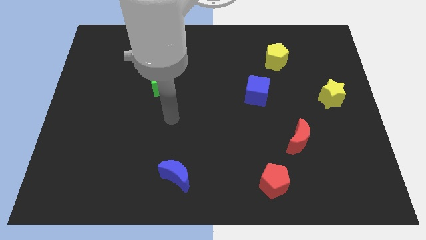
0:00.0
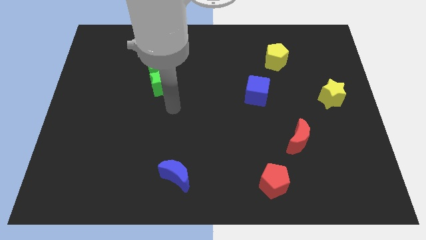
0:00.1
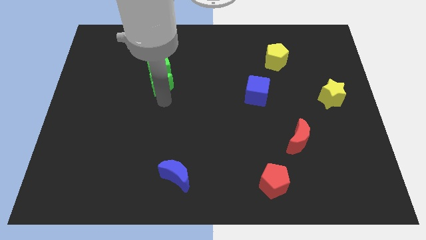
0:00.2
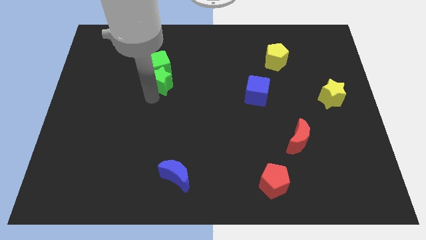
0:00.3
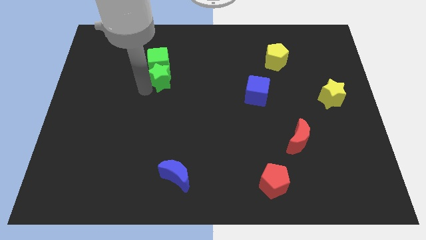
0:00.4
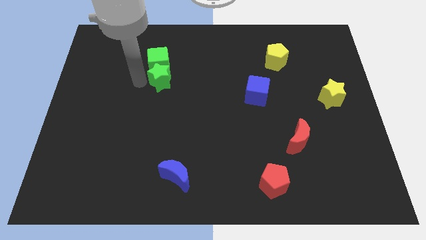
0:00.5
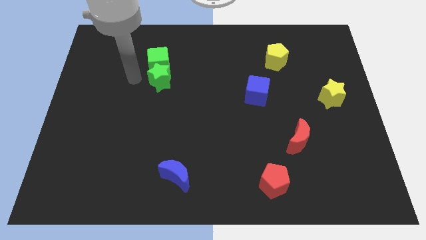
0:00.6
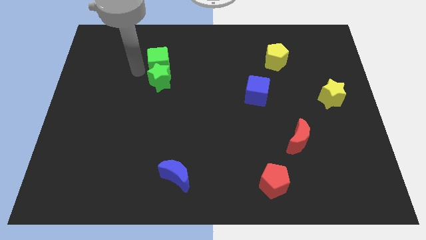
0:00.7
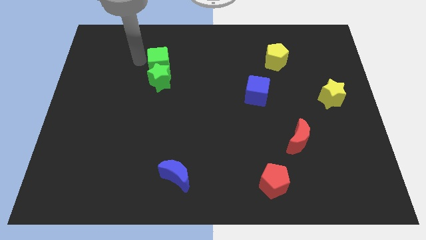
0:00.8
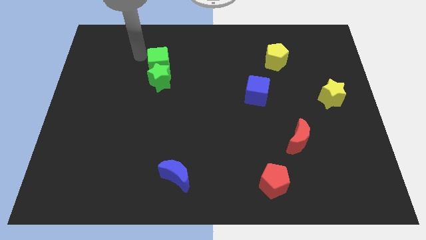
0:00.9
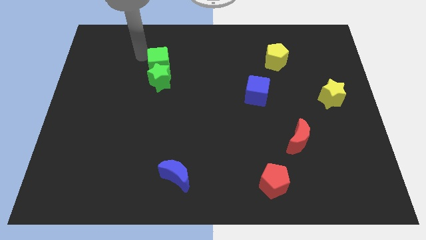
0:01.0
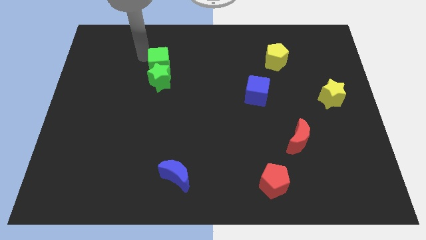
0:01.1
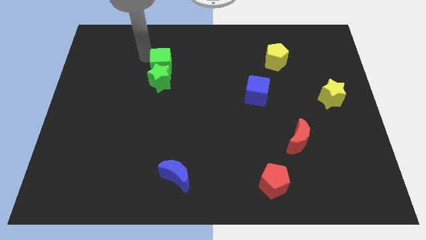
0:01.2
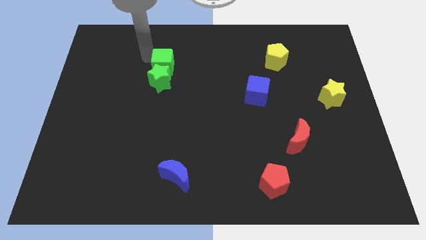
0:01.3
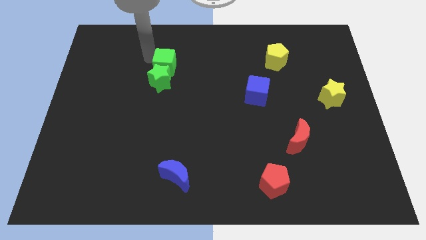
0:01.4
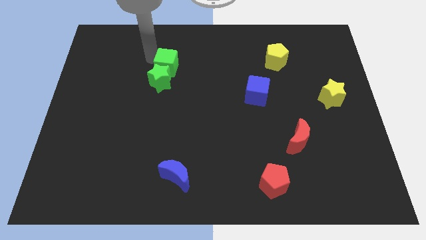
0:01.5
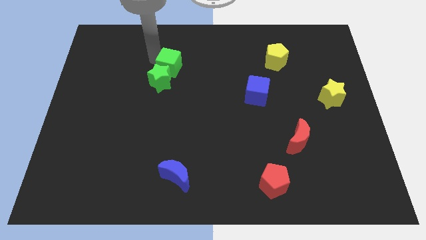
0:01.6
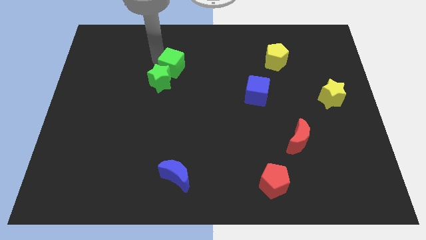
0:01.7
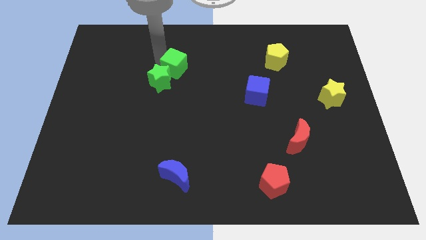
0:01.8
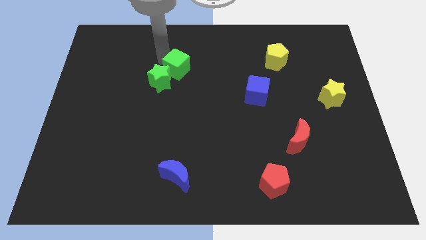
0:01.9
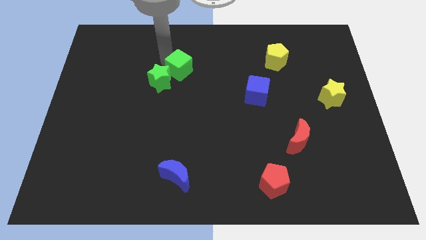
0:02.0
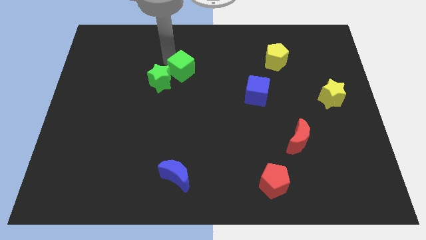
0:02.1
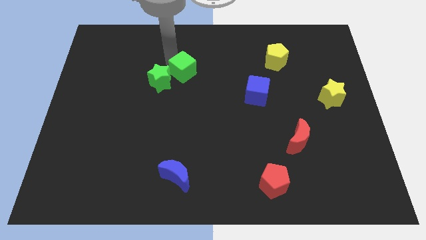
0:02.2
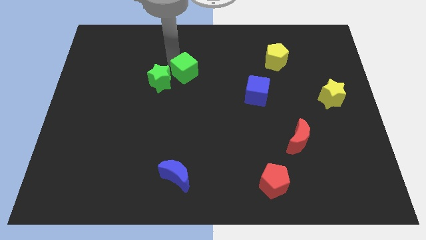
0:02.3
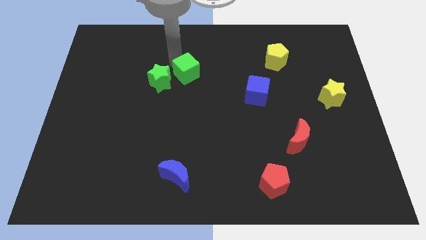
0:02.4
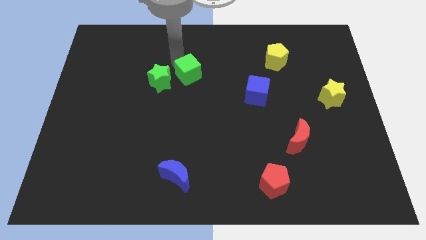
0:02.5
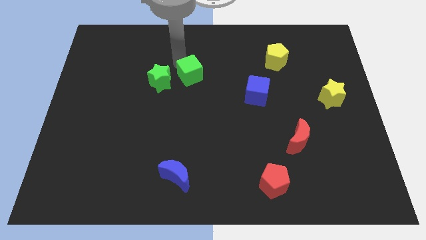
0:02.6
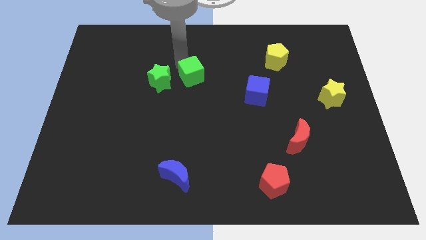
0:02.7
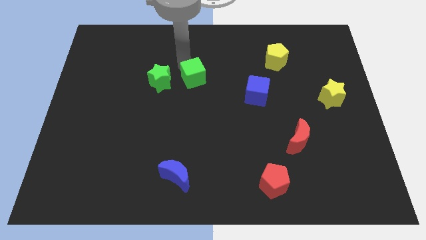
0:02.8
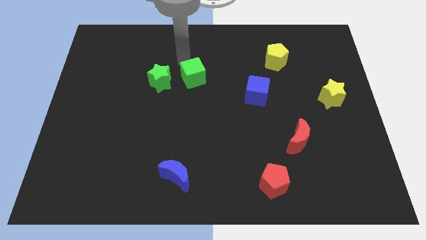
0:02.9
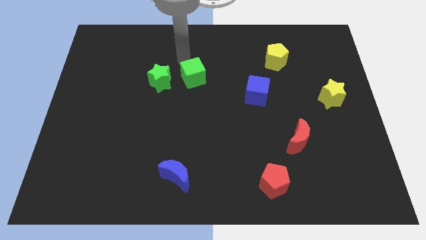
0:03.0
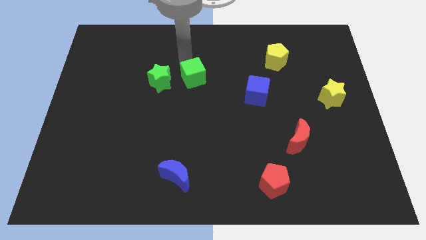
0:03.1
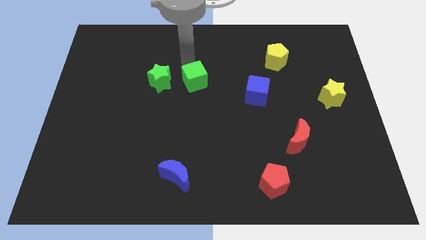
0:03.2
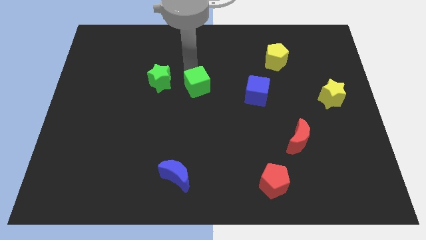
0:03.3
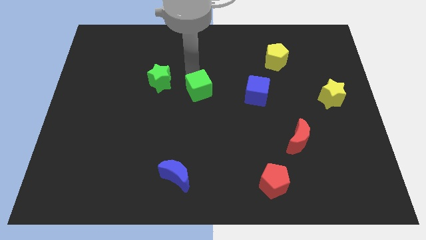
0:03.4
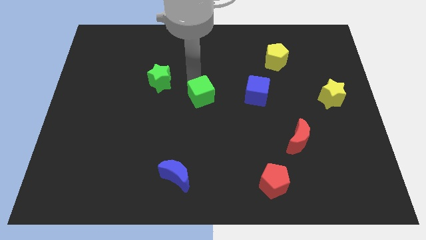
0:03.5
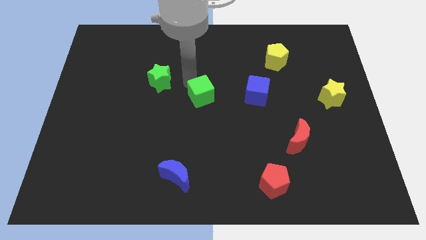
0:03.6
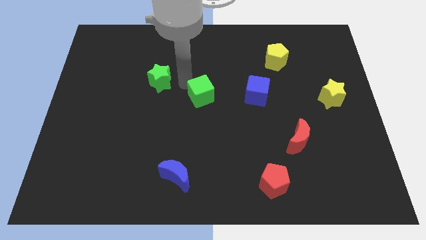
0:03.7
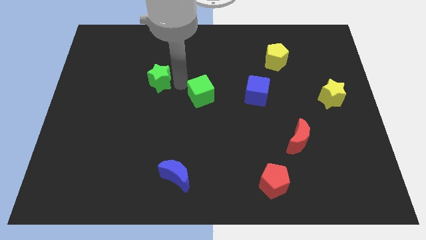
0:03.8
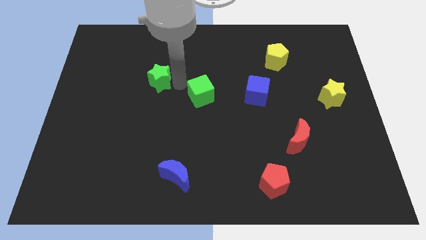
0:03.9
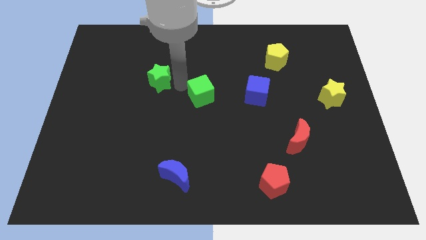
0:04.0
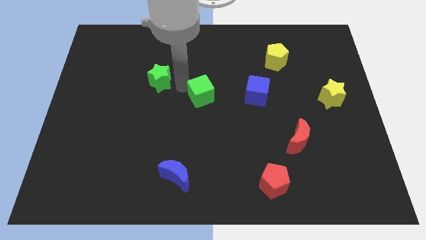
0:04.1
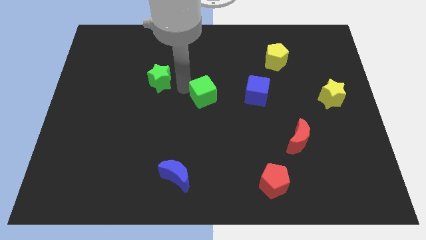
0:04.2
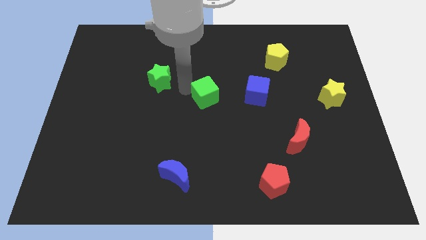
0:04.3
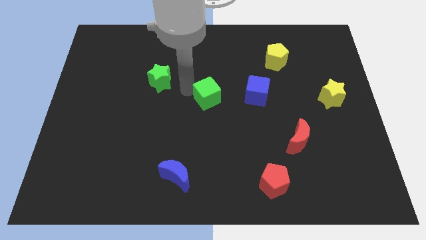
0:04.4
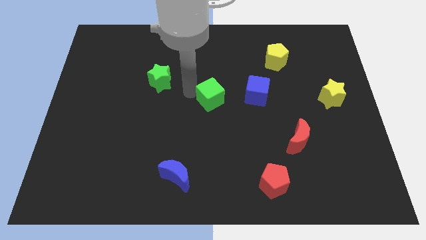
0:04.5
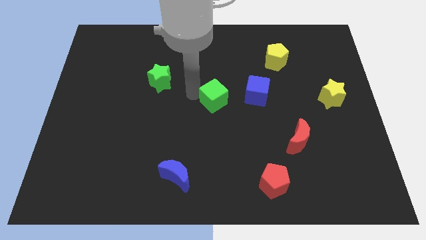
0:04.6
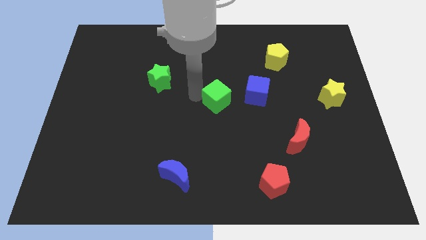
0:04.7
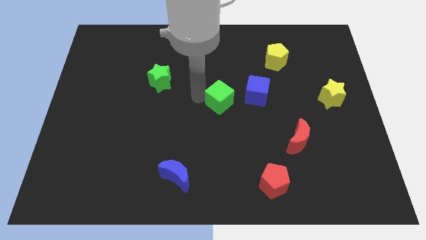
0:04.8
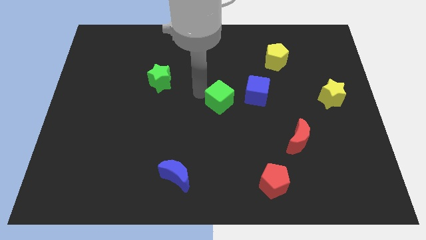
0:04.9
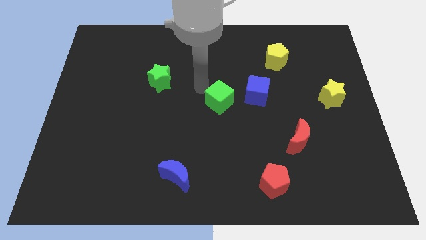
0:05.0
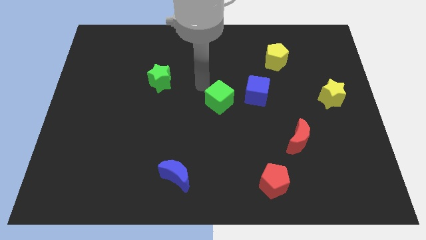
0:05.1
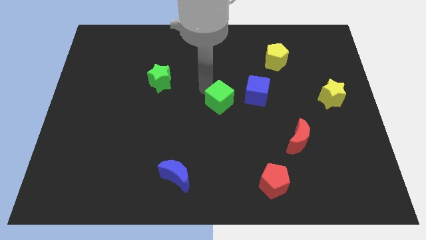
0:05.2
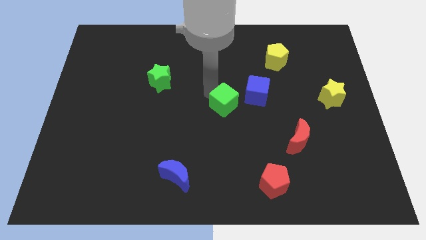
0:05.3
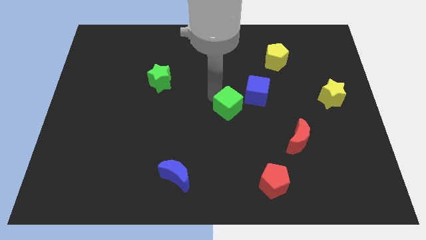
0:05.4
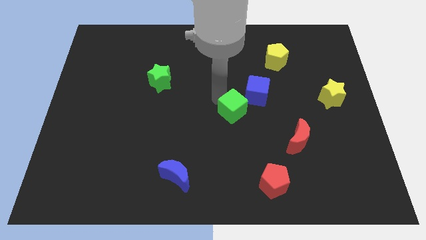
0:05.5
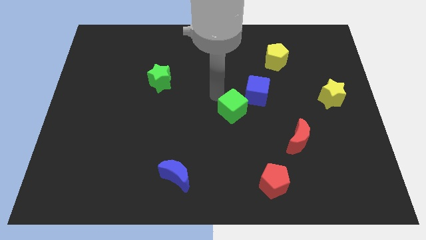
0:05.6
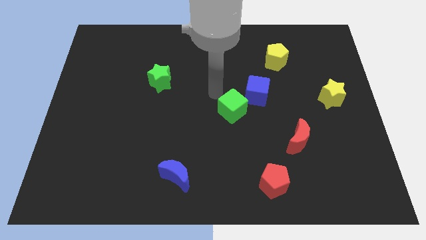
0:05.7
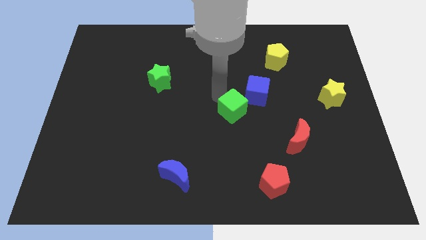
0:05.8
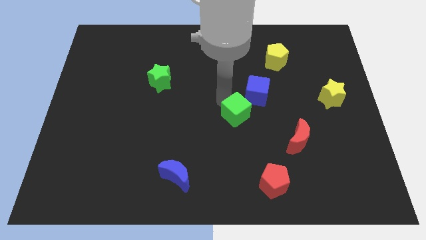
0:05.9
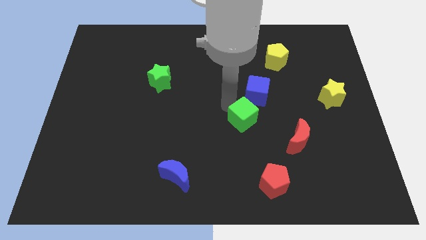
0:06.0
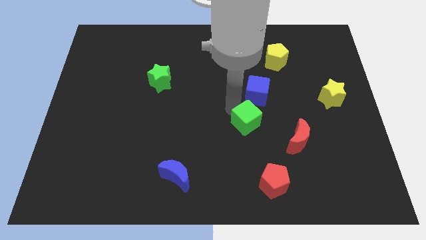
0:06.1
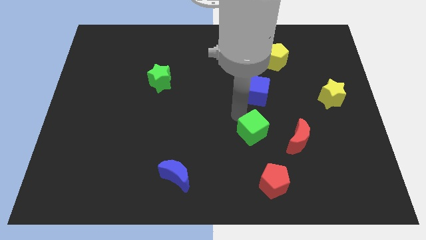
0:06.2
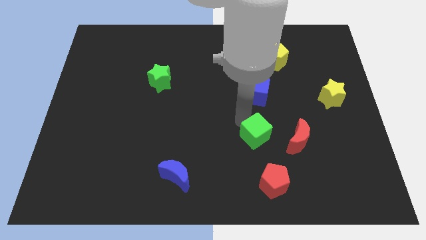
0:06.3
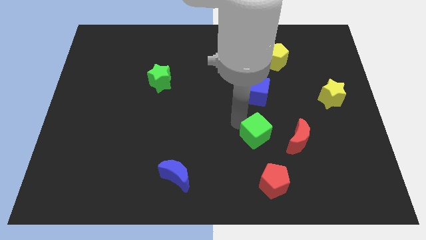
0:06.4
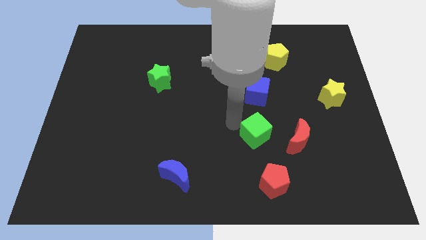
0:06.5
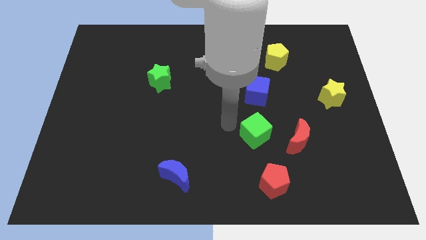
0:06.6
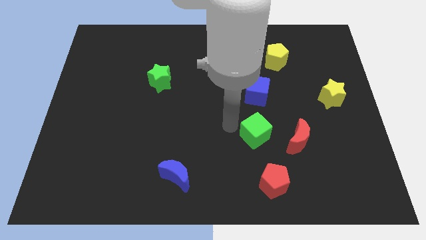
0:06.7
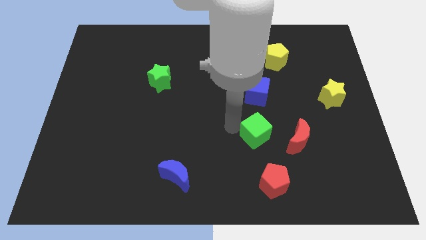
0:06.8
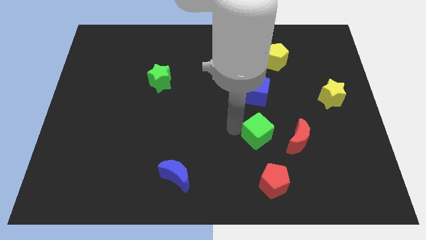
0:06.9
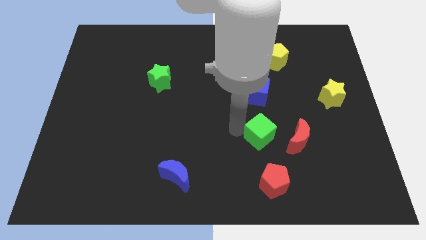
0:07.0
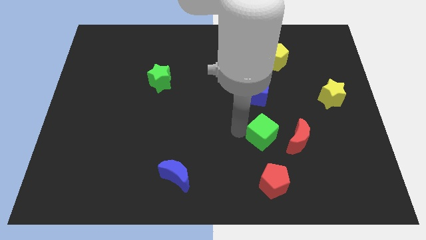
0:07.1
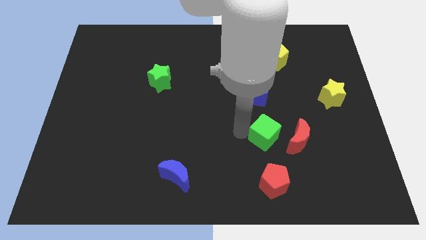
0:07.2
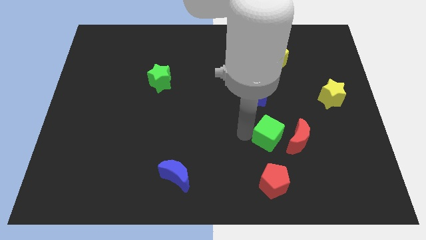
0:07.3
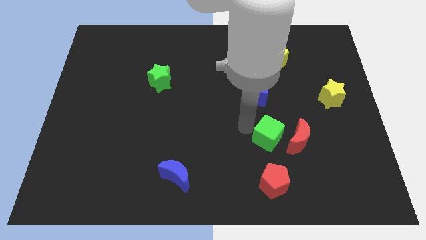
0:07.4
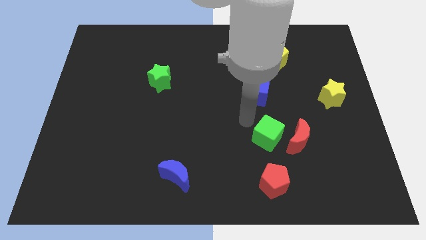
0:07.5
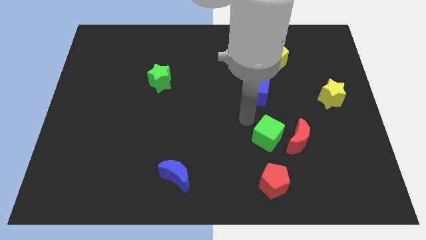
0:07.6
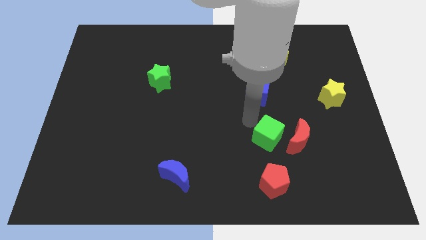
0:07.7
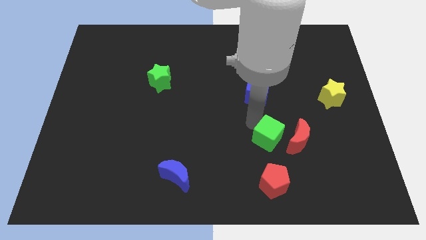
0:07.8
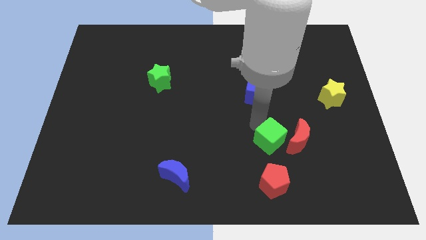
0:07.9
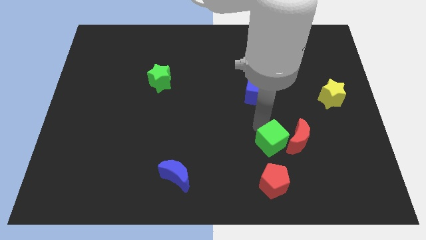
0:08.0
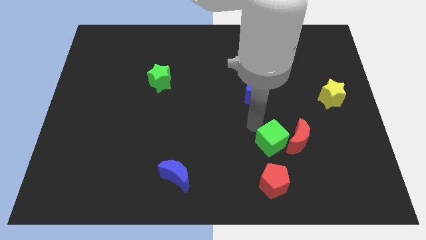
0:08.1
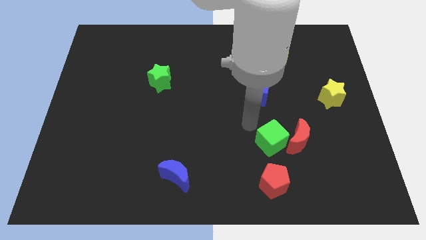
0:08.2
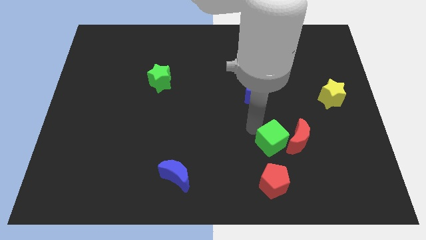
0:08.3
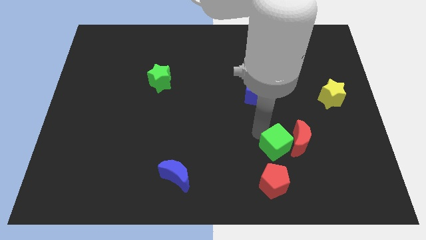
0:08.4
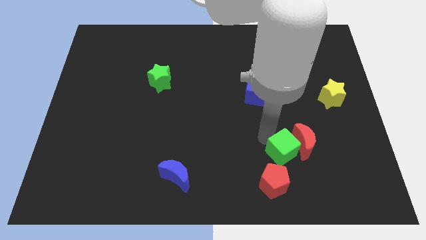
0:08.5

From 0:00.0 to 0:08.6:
move the green cube diagonally up and to the right of the red pentagon
